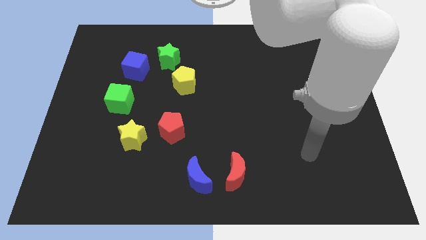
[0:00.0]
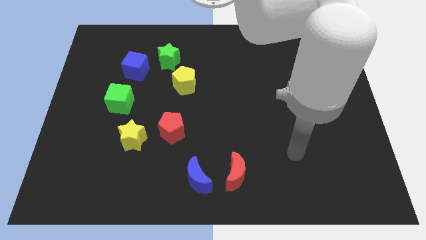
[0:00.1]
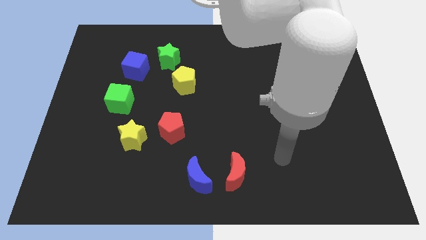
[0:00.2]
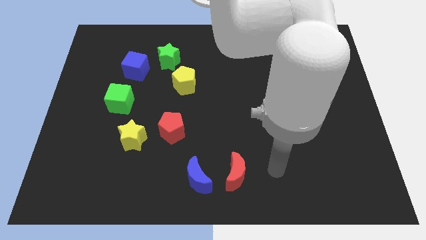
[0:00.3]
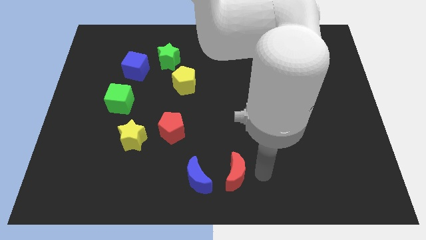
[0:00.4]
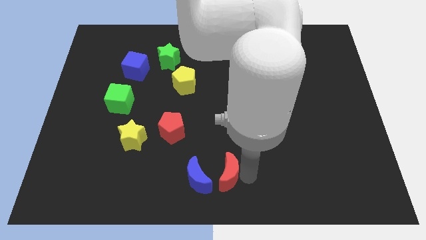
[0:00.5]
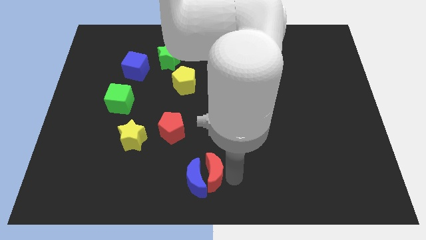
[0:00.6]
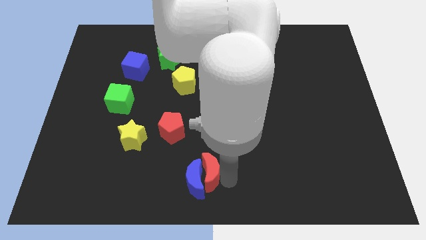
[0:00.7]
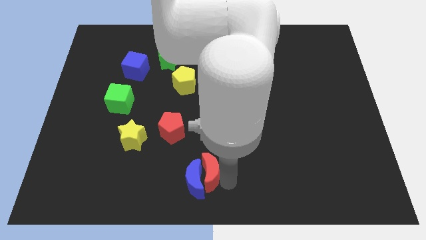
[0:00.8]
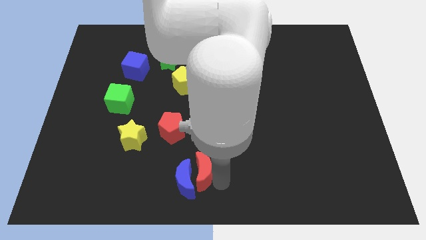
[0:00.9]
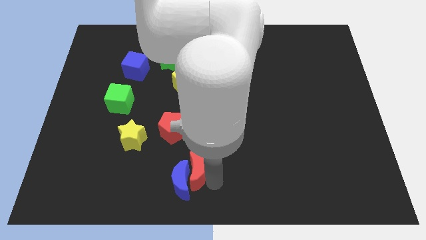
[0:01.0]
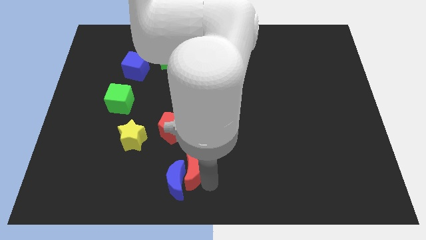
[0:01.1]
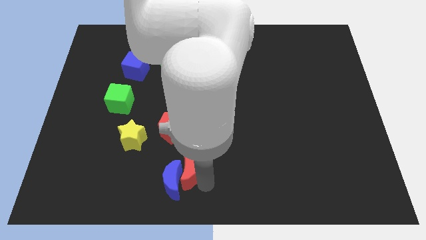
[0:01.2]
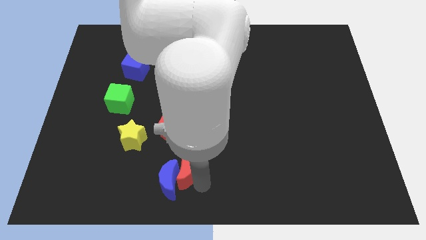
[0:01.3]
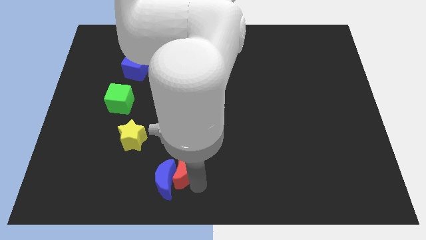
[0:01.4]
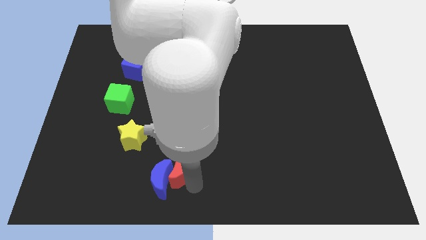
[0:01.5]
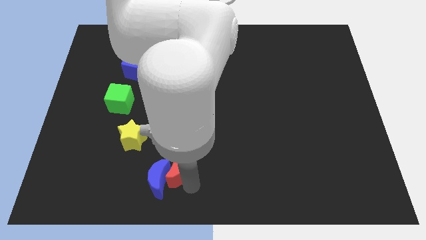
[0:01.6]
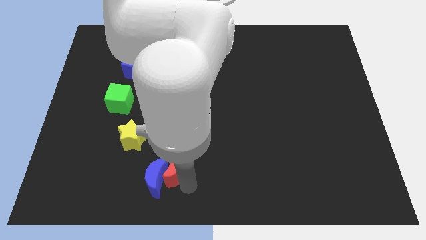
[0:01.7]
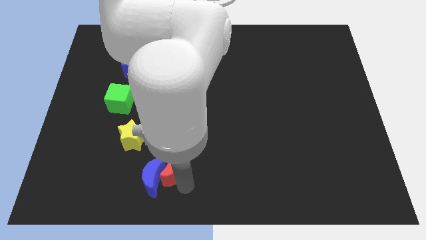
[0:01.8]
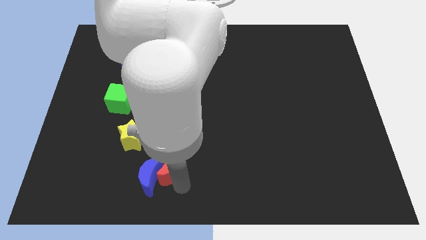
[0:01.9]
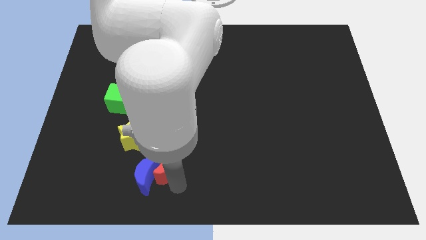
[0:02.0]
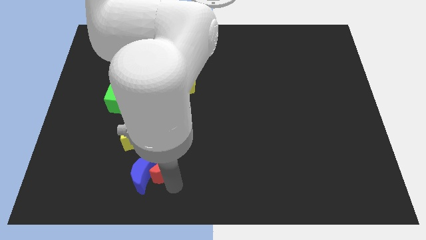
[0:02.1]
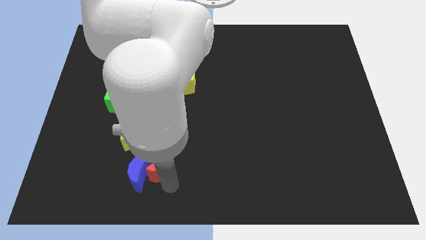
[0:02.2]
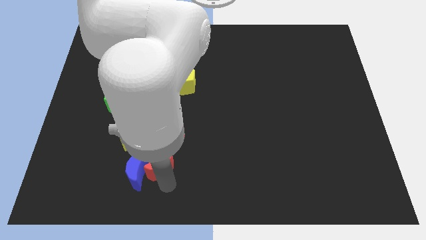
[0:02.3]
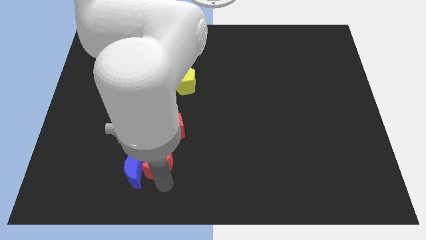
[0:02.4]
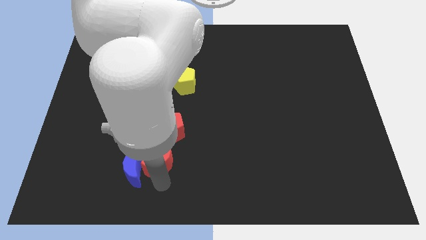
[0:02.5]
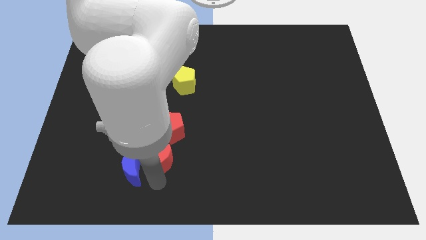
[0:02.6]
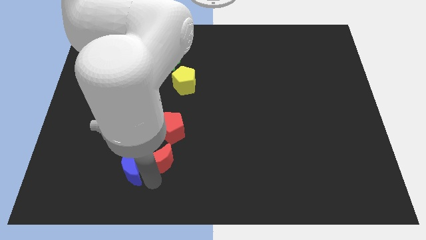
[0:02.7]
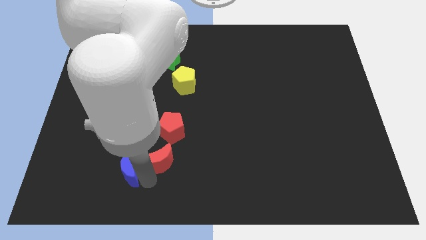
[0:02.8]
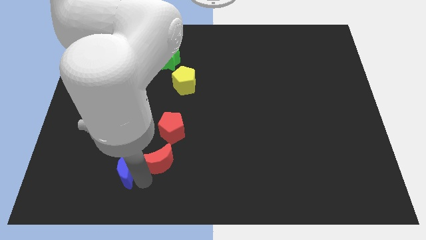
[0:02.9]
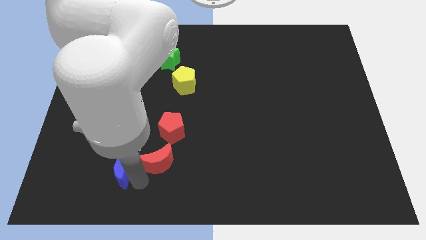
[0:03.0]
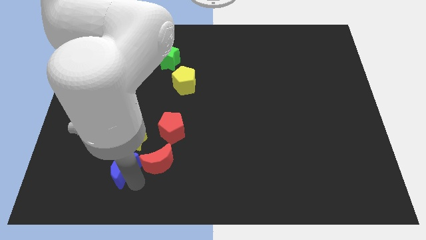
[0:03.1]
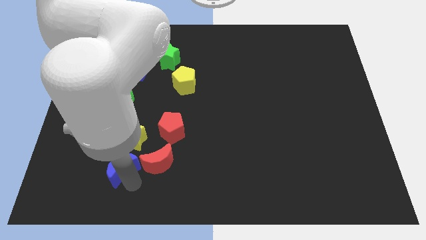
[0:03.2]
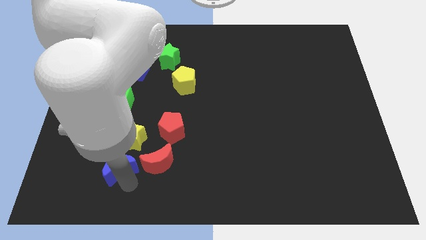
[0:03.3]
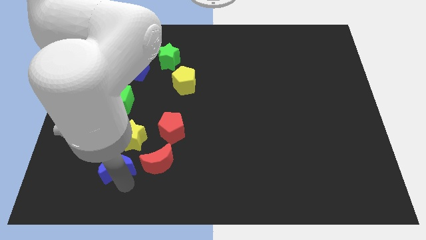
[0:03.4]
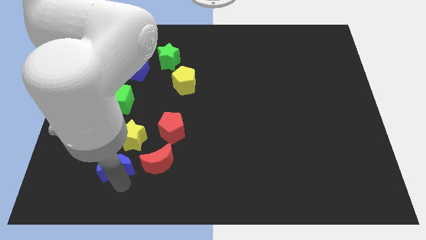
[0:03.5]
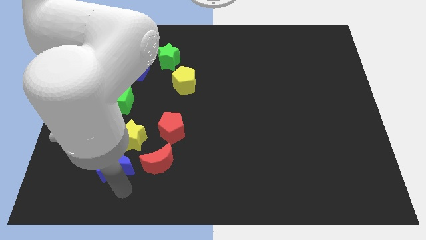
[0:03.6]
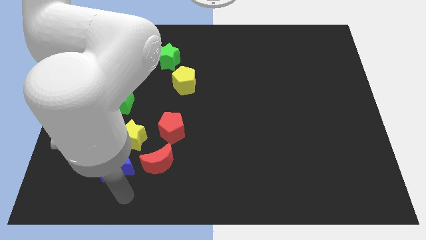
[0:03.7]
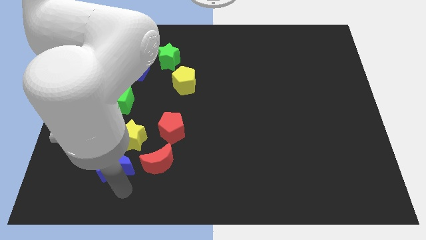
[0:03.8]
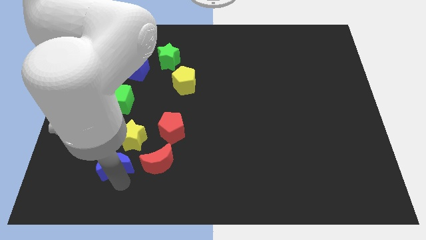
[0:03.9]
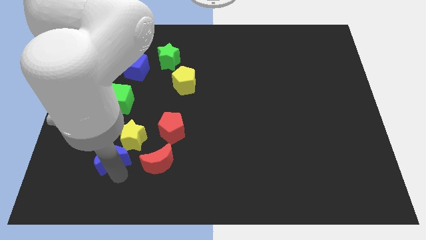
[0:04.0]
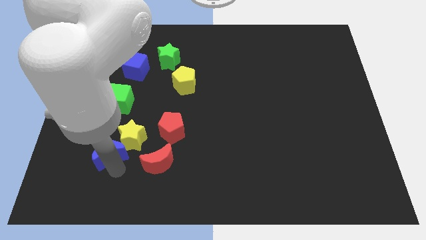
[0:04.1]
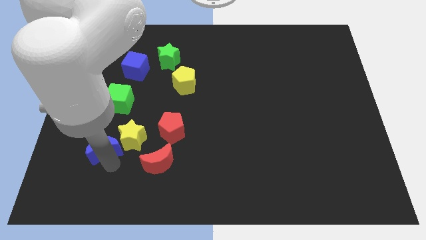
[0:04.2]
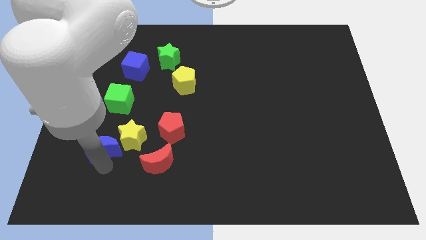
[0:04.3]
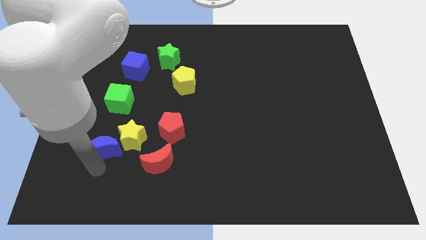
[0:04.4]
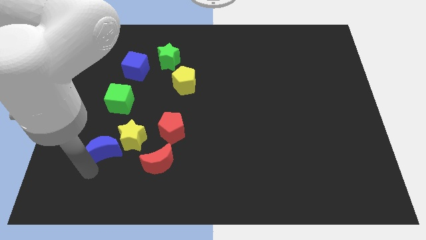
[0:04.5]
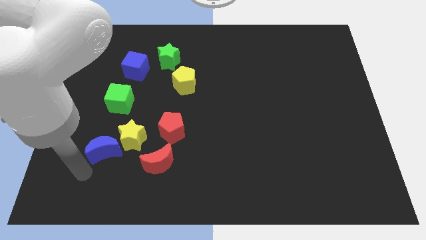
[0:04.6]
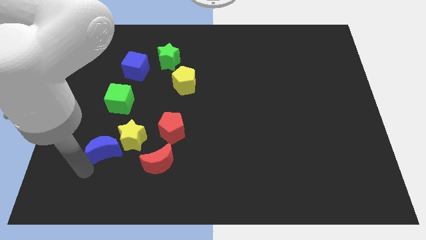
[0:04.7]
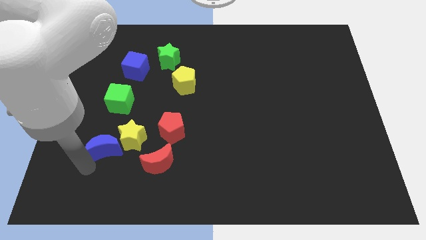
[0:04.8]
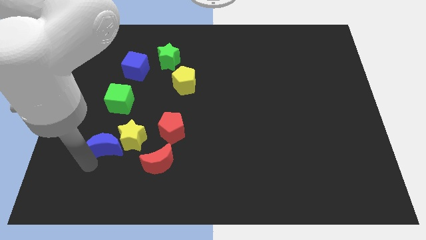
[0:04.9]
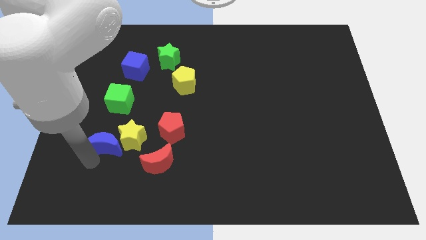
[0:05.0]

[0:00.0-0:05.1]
slide the blue moon just left of the red pentagon

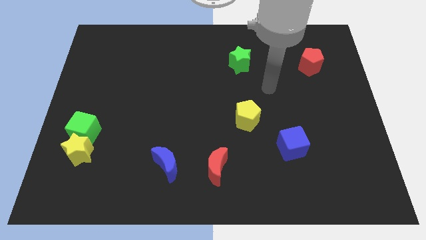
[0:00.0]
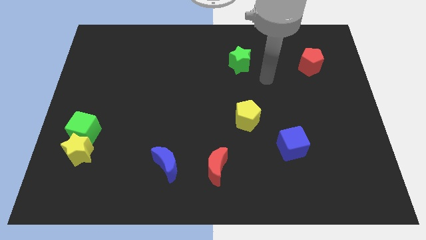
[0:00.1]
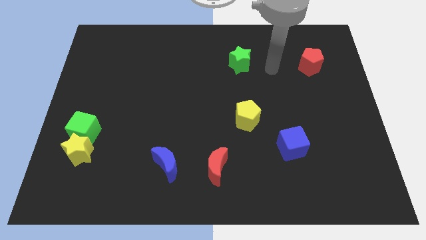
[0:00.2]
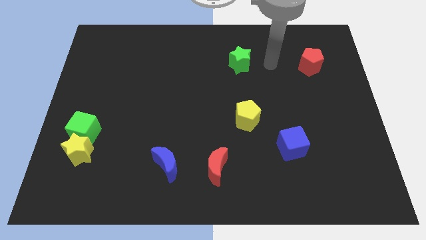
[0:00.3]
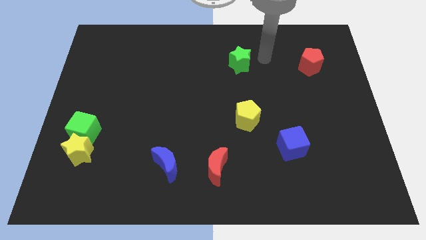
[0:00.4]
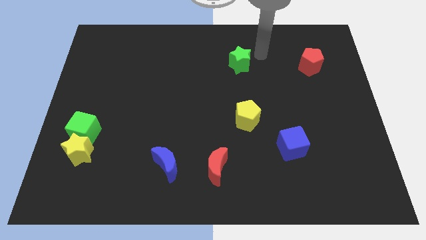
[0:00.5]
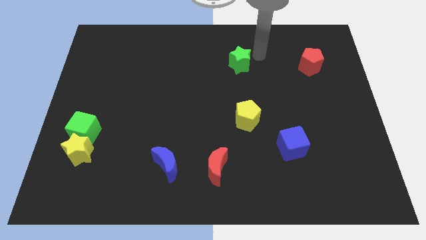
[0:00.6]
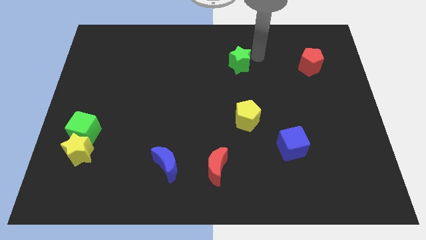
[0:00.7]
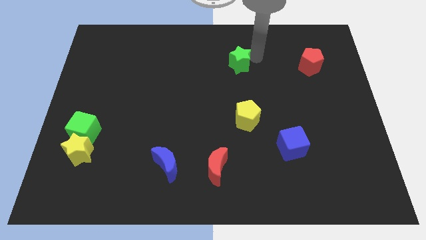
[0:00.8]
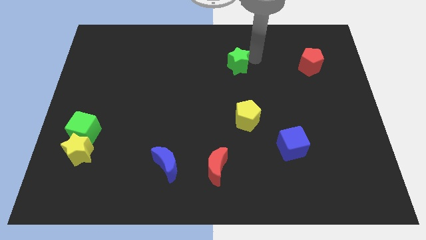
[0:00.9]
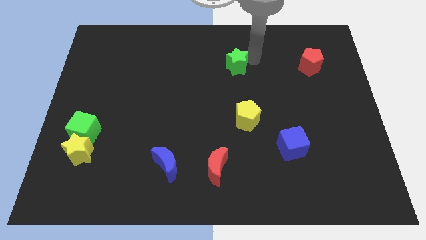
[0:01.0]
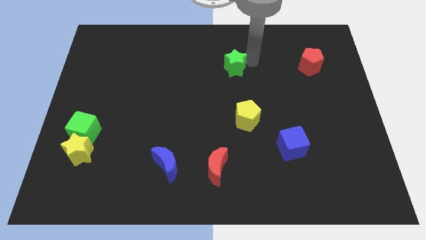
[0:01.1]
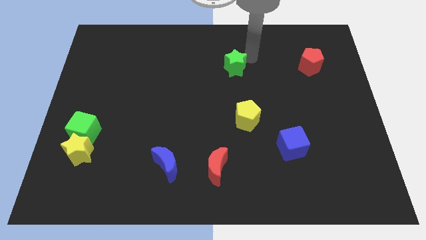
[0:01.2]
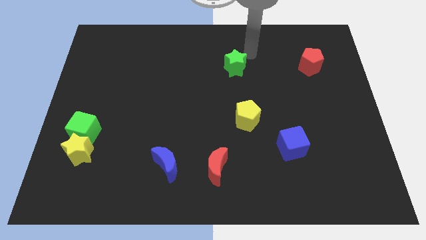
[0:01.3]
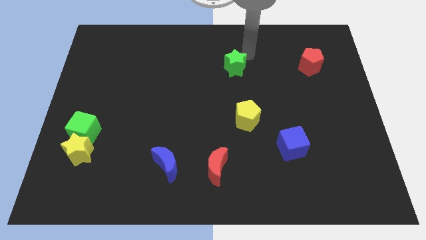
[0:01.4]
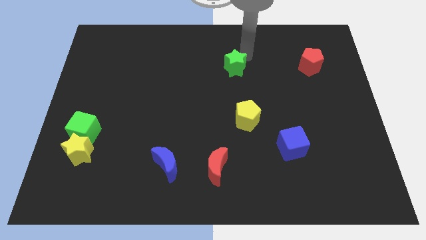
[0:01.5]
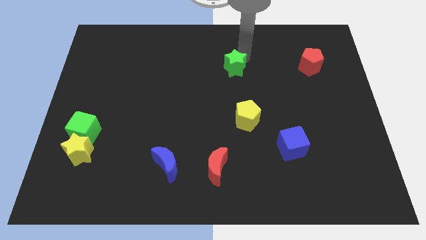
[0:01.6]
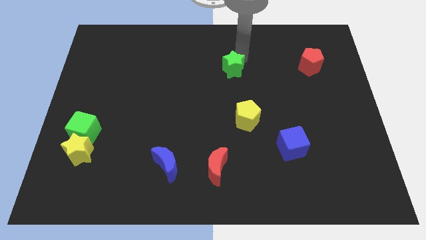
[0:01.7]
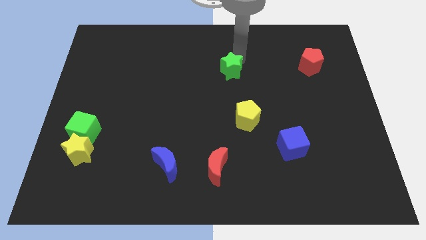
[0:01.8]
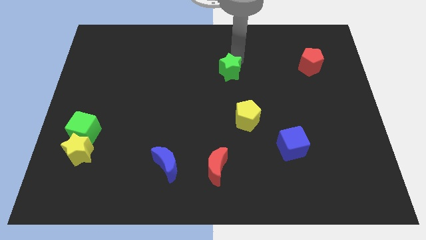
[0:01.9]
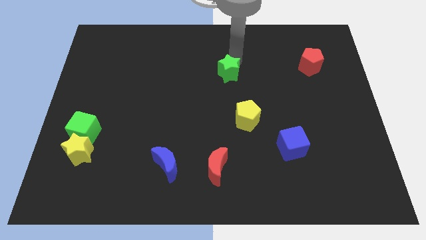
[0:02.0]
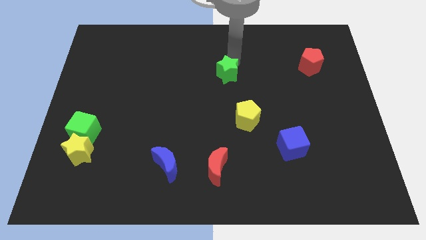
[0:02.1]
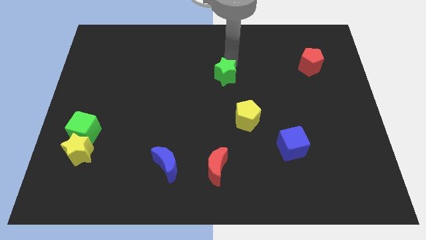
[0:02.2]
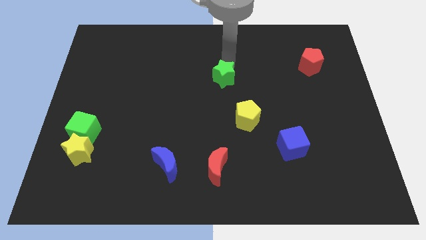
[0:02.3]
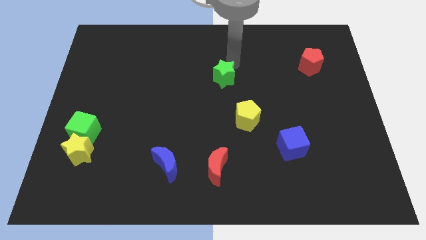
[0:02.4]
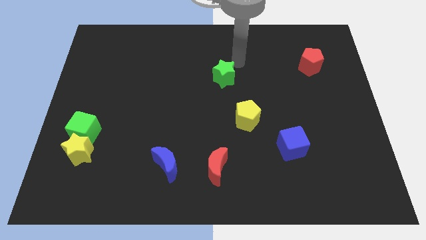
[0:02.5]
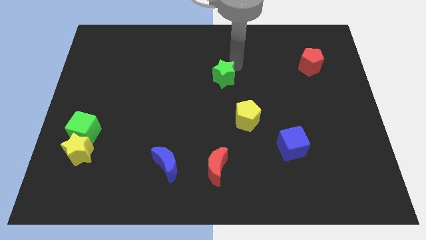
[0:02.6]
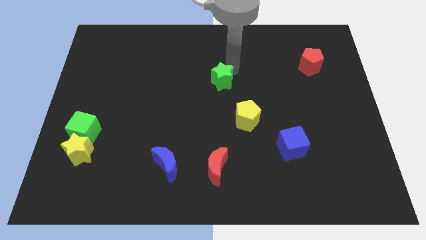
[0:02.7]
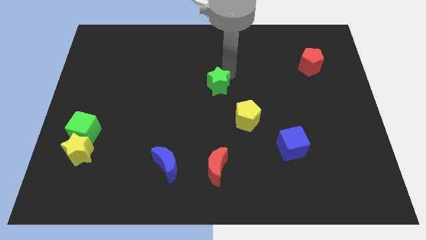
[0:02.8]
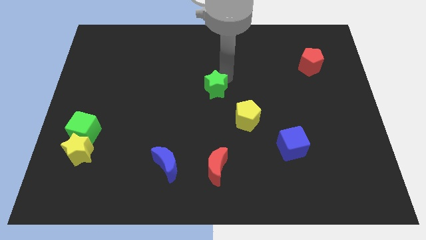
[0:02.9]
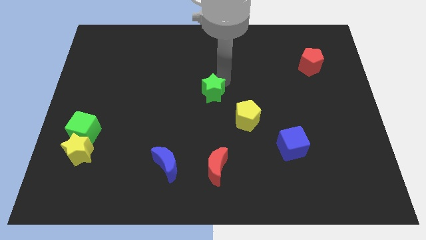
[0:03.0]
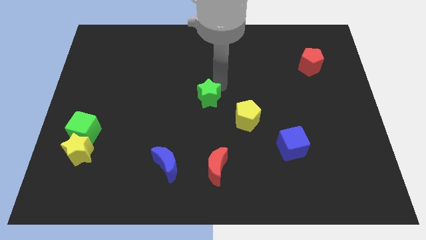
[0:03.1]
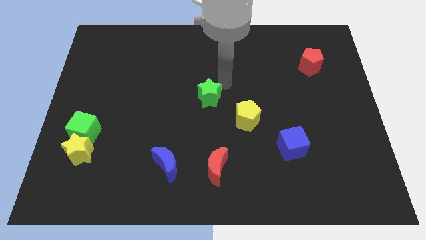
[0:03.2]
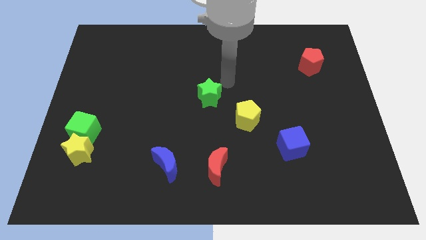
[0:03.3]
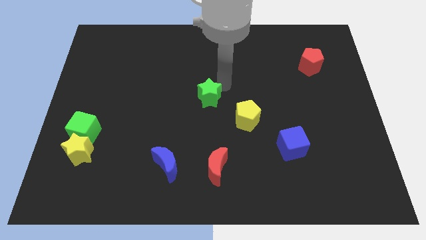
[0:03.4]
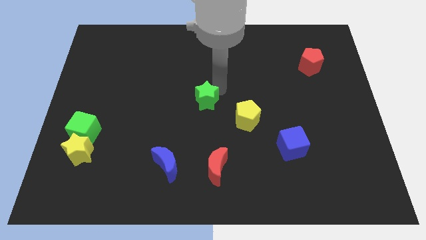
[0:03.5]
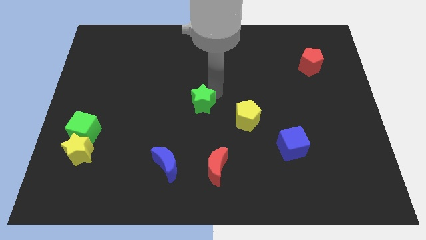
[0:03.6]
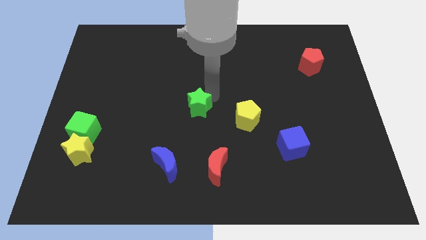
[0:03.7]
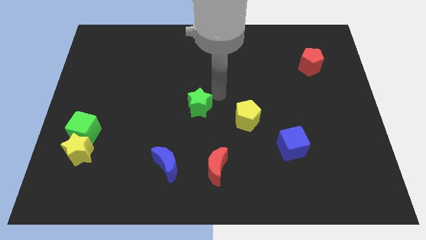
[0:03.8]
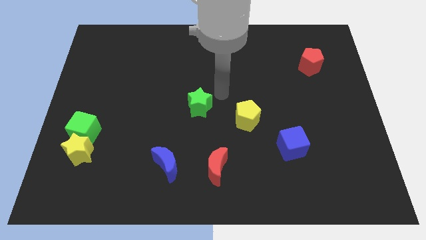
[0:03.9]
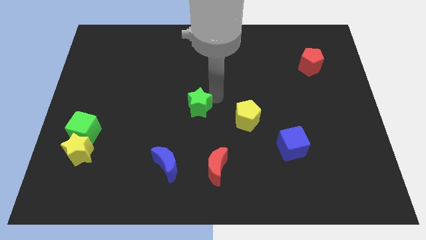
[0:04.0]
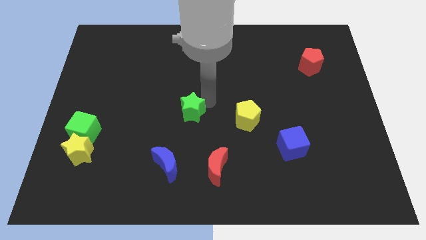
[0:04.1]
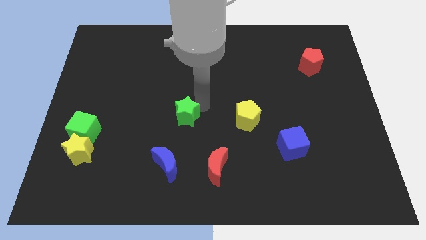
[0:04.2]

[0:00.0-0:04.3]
move the green star to the top of the blue moon
